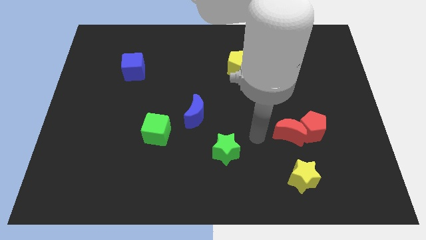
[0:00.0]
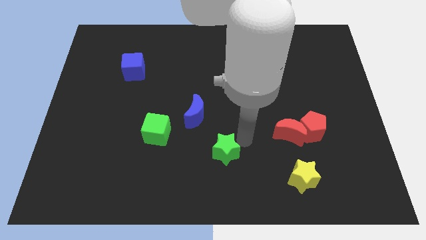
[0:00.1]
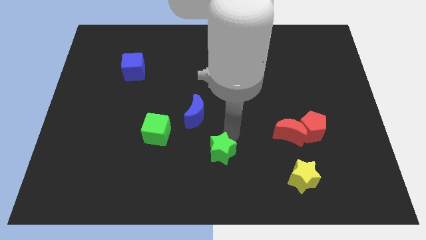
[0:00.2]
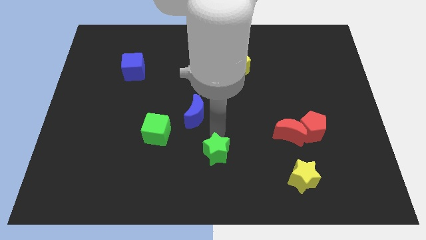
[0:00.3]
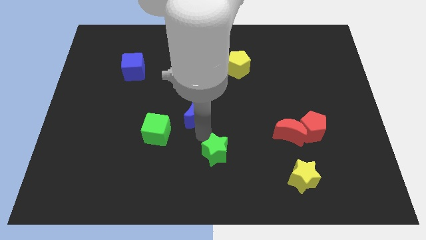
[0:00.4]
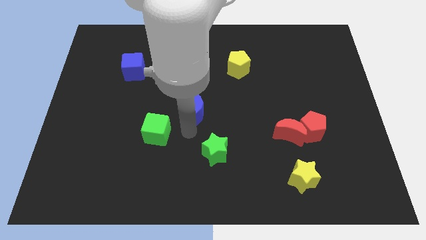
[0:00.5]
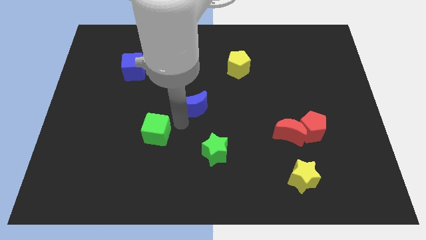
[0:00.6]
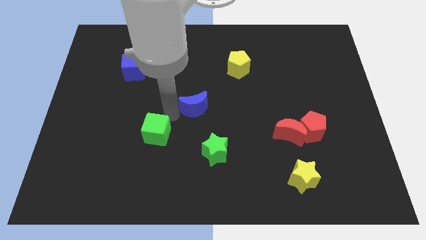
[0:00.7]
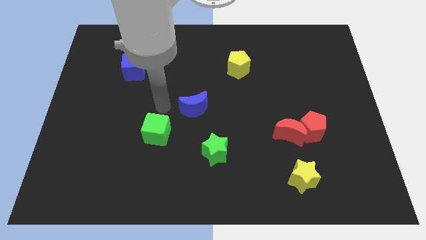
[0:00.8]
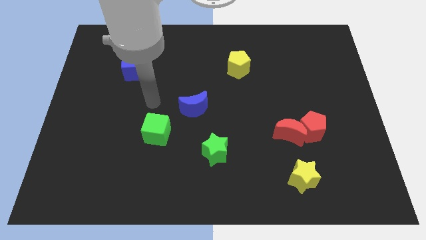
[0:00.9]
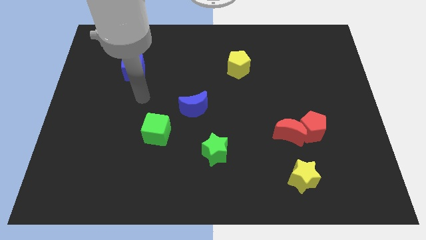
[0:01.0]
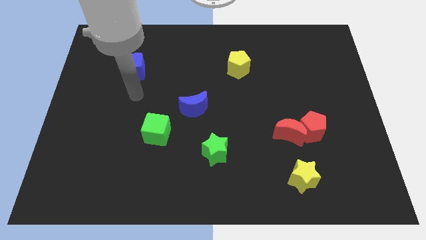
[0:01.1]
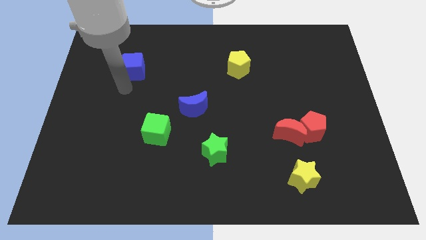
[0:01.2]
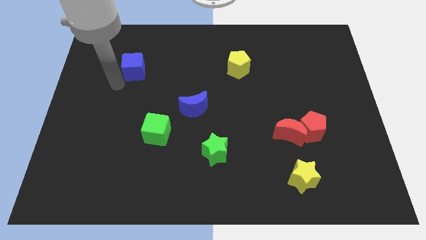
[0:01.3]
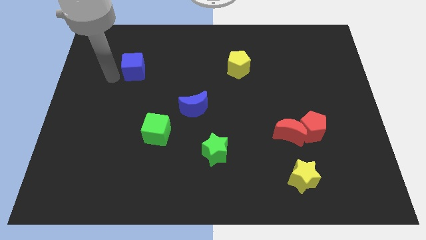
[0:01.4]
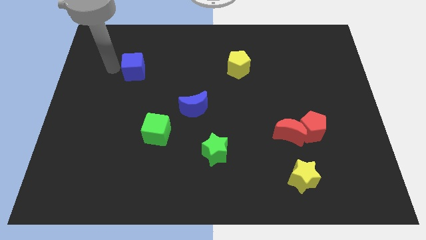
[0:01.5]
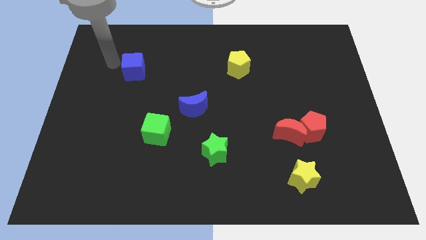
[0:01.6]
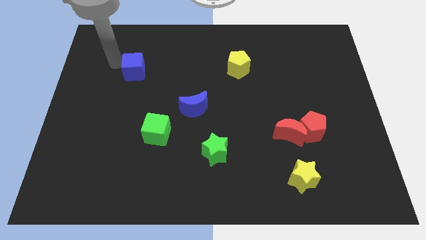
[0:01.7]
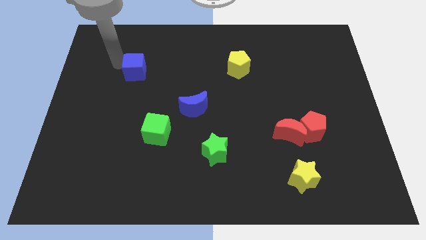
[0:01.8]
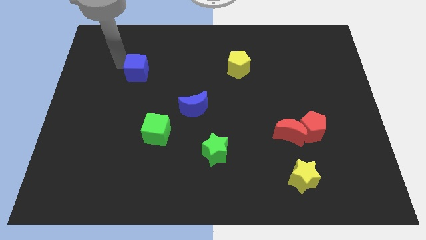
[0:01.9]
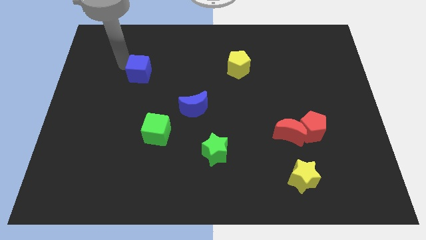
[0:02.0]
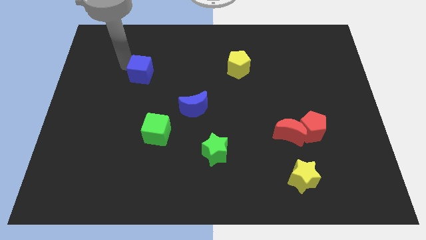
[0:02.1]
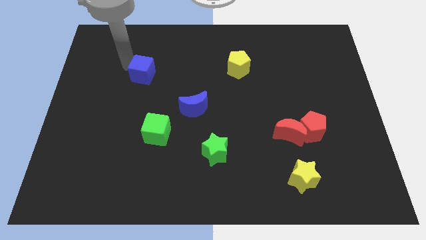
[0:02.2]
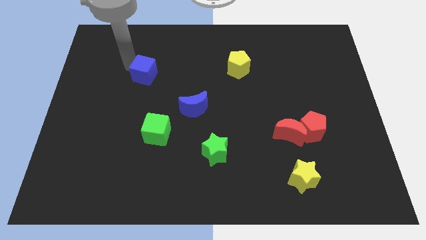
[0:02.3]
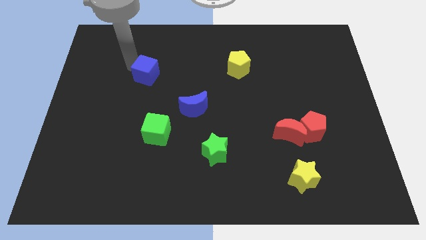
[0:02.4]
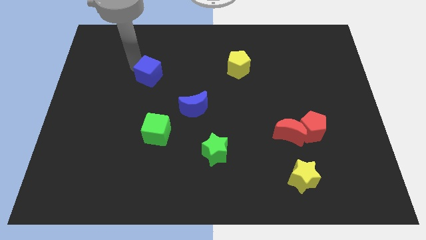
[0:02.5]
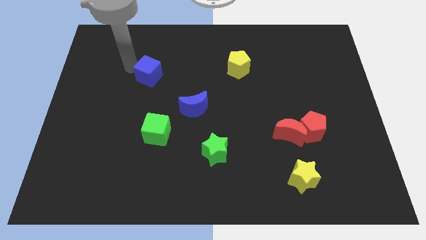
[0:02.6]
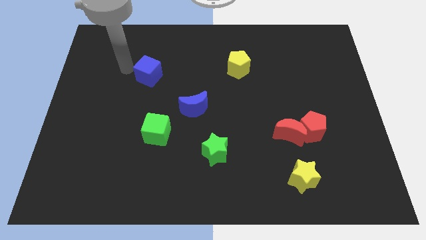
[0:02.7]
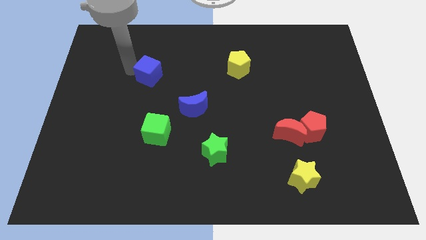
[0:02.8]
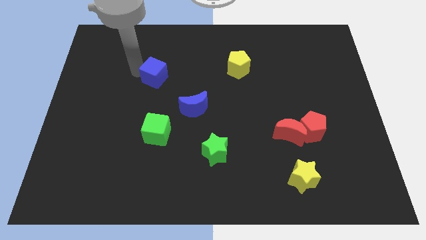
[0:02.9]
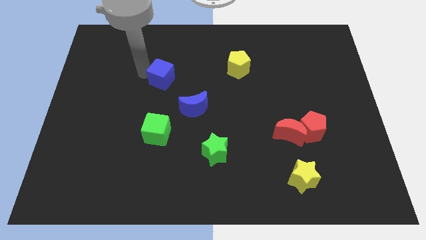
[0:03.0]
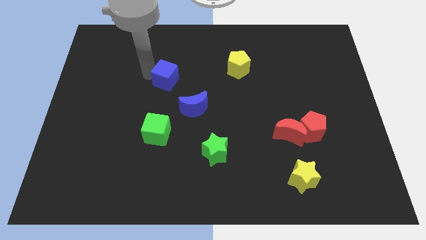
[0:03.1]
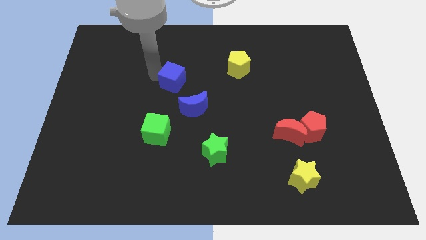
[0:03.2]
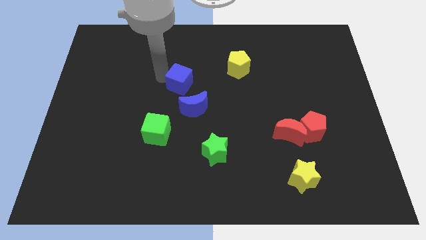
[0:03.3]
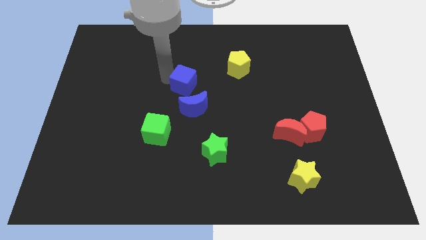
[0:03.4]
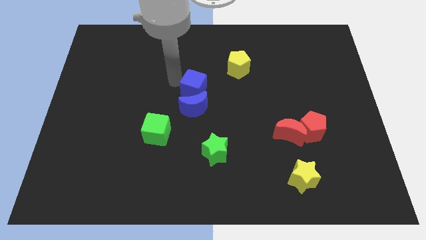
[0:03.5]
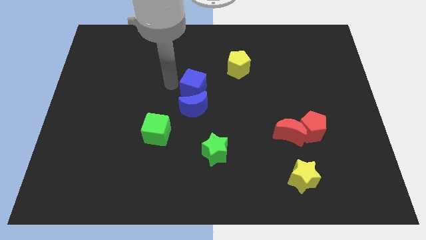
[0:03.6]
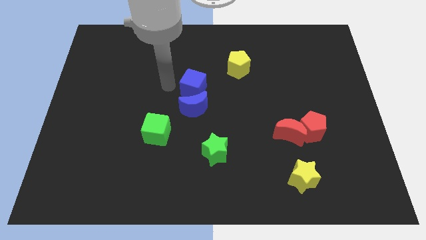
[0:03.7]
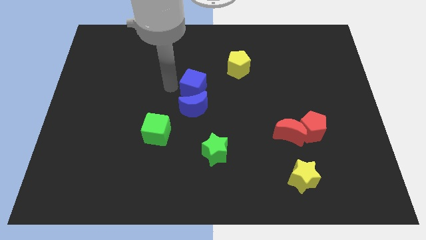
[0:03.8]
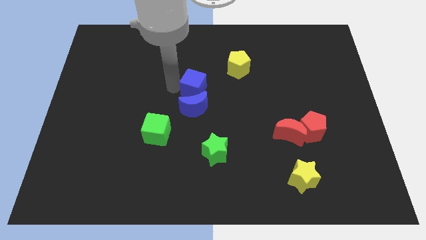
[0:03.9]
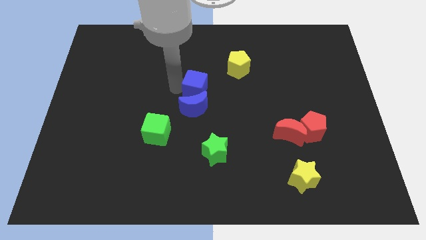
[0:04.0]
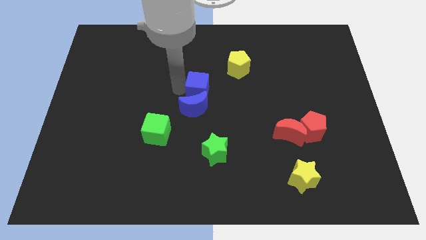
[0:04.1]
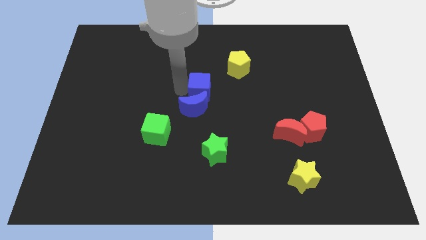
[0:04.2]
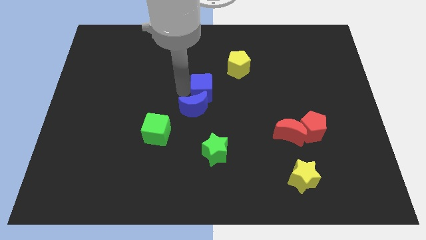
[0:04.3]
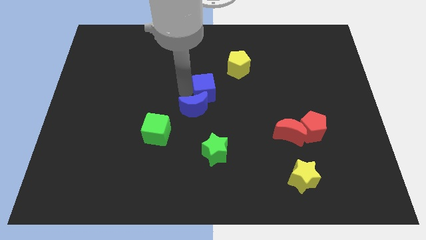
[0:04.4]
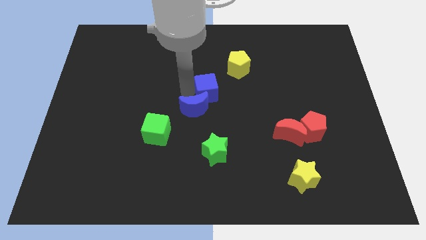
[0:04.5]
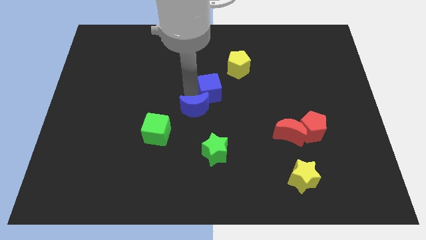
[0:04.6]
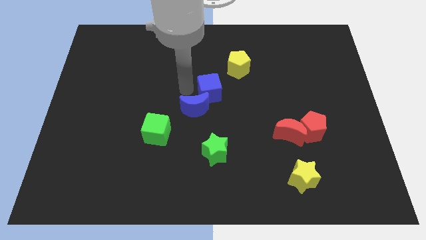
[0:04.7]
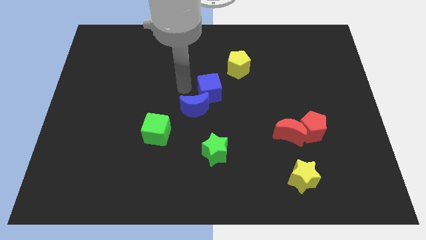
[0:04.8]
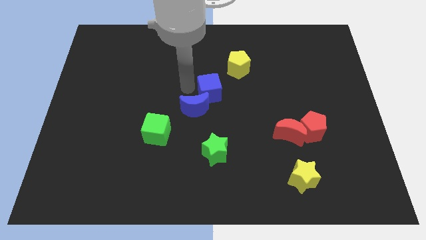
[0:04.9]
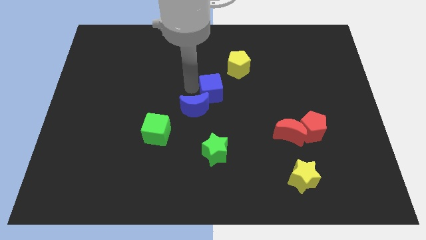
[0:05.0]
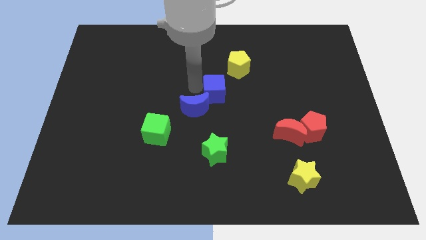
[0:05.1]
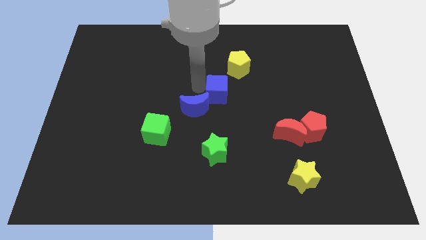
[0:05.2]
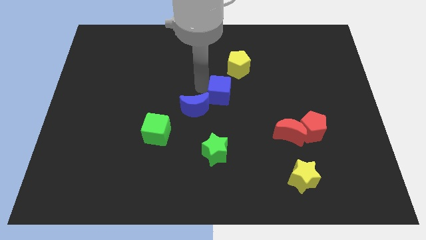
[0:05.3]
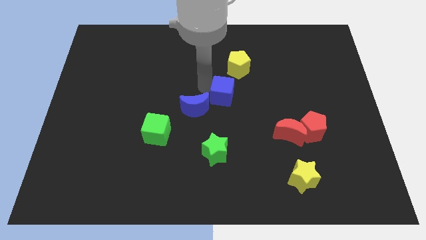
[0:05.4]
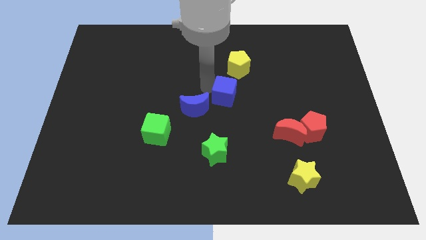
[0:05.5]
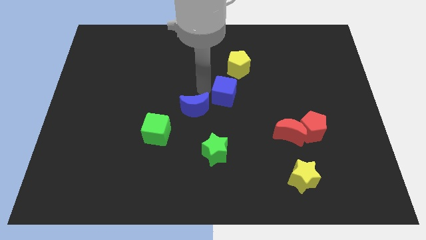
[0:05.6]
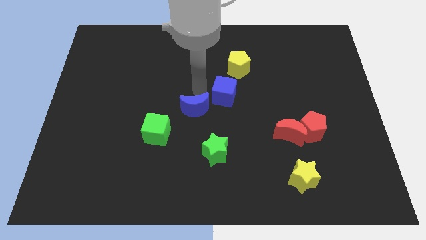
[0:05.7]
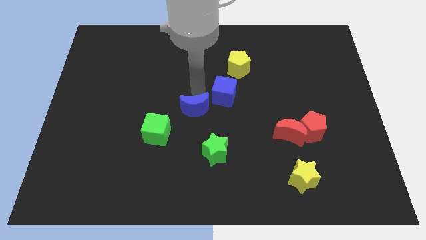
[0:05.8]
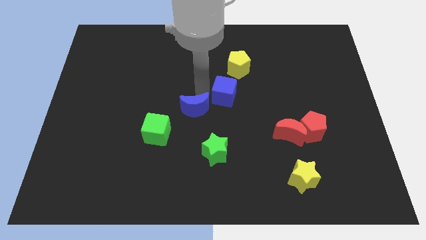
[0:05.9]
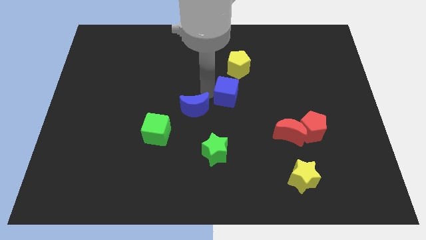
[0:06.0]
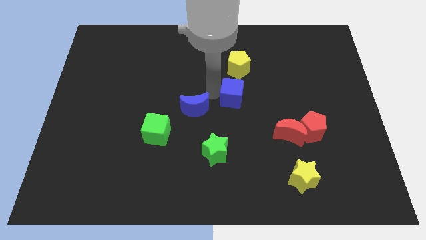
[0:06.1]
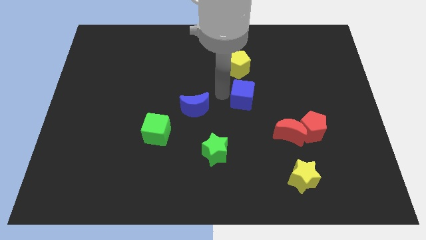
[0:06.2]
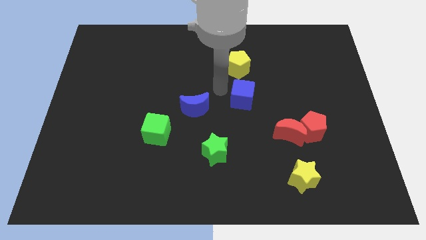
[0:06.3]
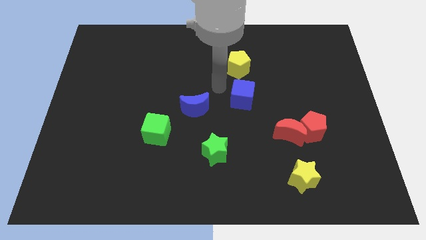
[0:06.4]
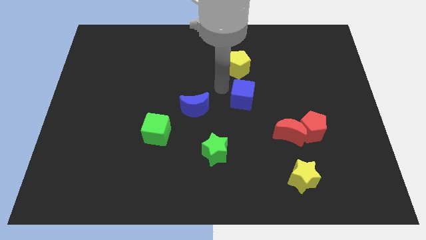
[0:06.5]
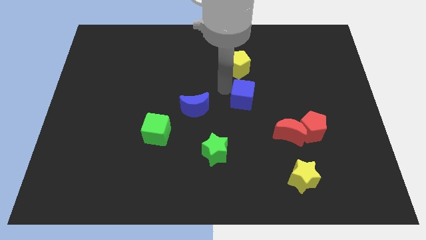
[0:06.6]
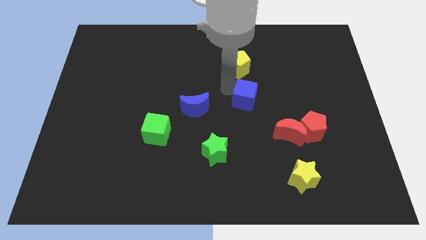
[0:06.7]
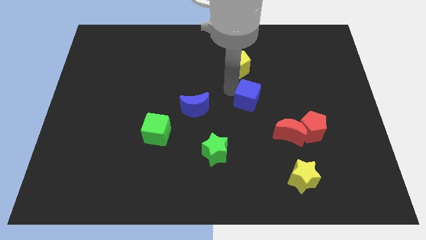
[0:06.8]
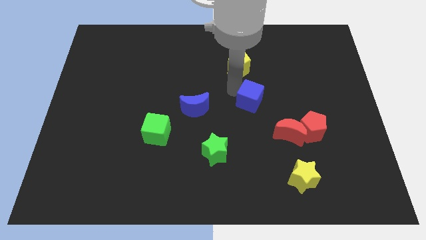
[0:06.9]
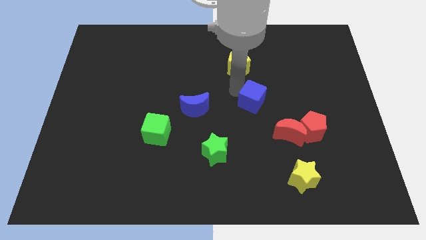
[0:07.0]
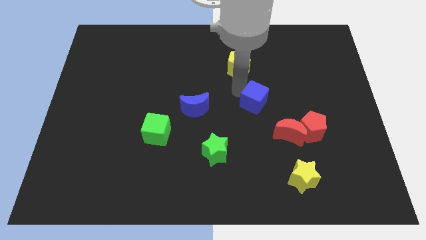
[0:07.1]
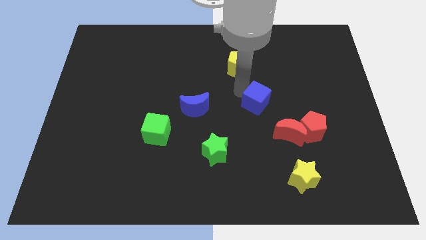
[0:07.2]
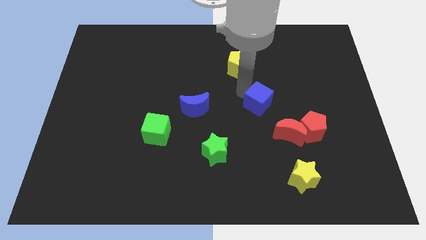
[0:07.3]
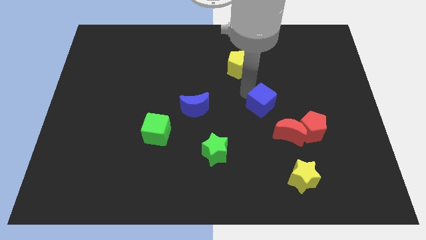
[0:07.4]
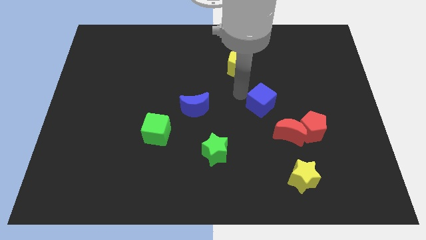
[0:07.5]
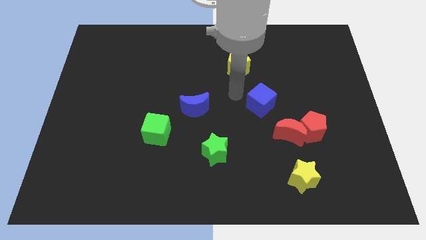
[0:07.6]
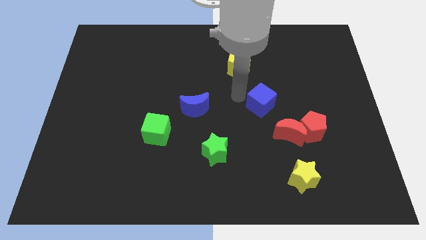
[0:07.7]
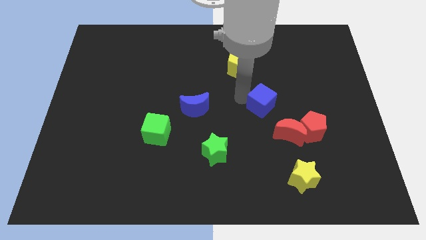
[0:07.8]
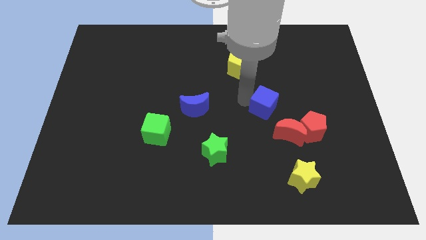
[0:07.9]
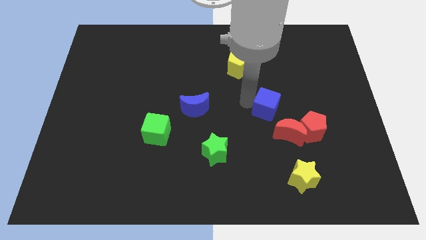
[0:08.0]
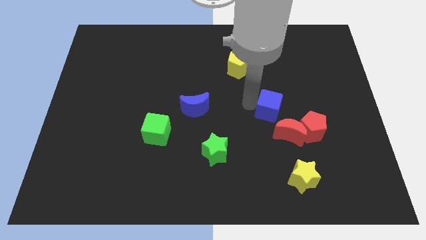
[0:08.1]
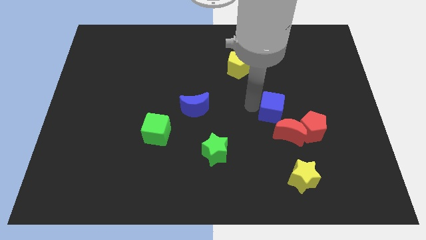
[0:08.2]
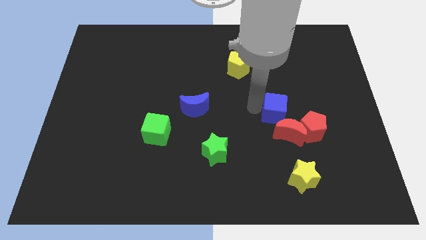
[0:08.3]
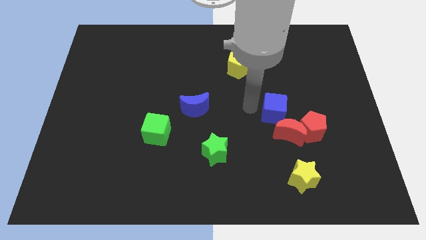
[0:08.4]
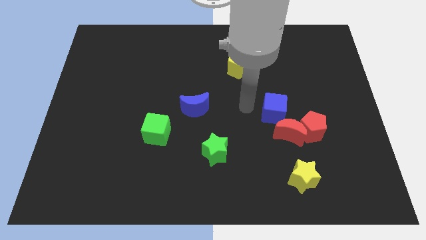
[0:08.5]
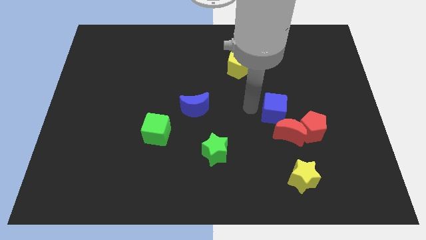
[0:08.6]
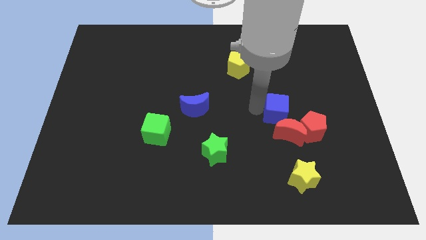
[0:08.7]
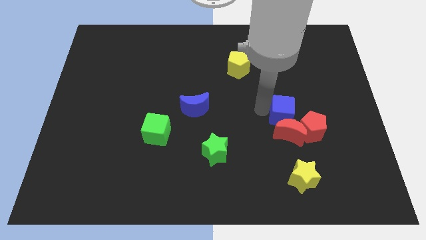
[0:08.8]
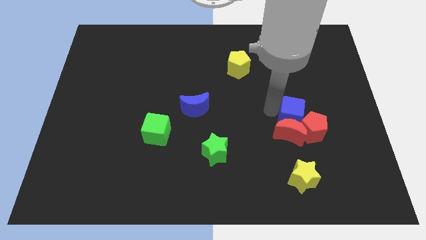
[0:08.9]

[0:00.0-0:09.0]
slide the blue cube towards the red pentagon
